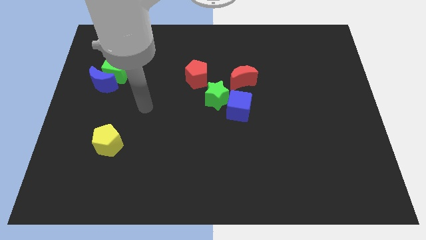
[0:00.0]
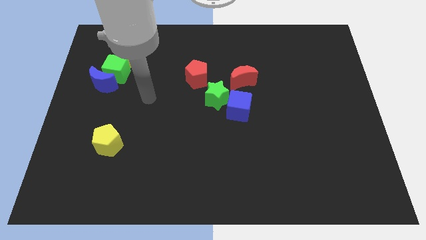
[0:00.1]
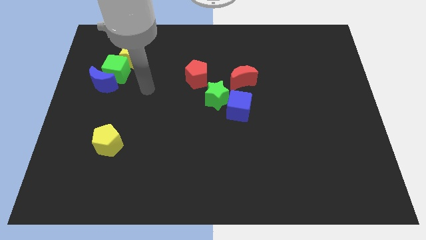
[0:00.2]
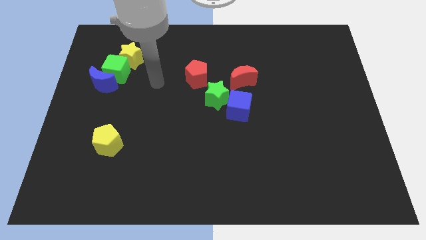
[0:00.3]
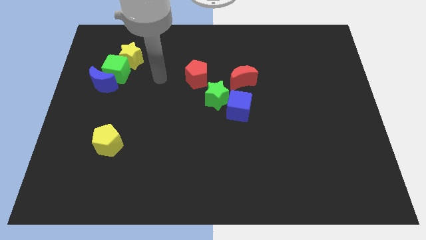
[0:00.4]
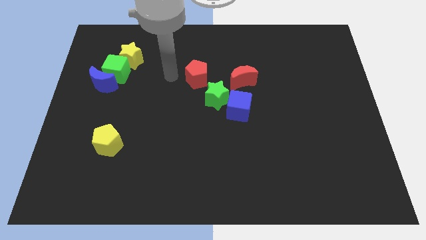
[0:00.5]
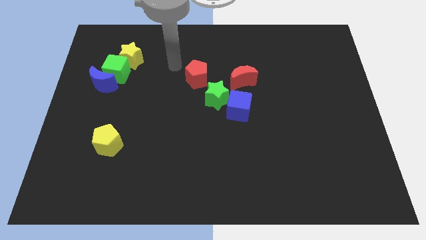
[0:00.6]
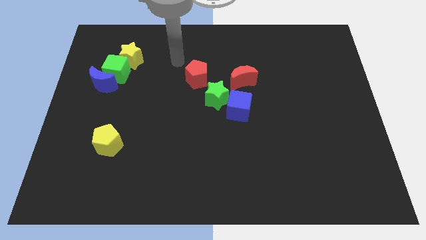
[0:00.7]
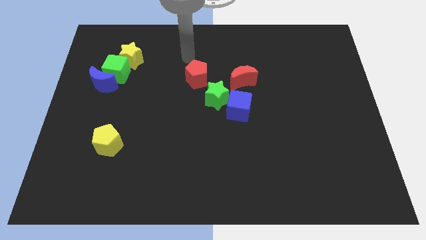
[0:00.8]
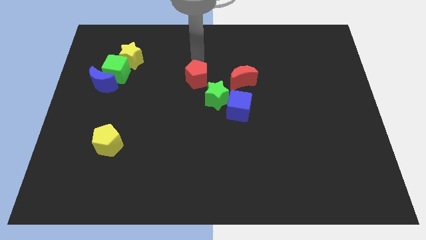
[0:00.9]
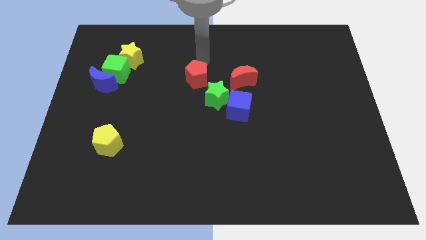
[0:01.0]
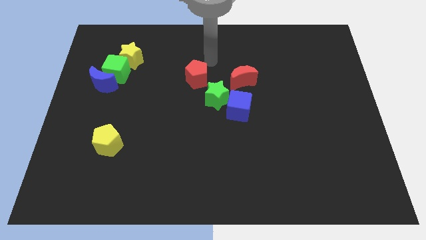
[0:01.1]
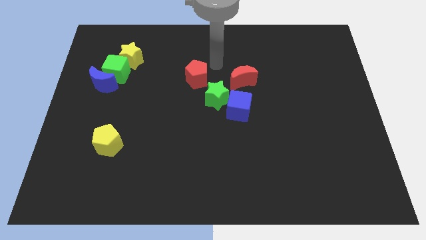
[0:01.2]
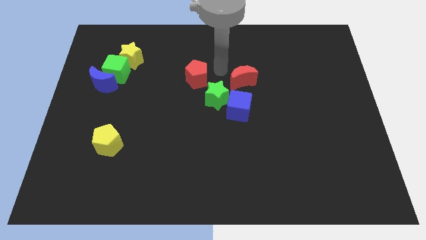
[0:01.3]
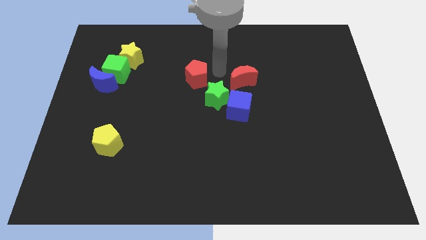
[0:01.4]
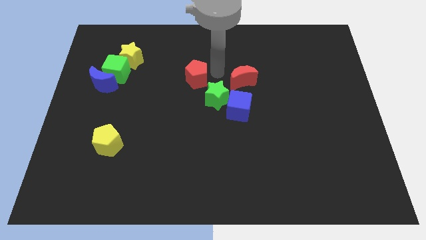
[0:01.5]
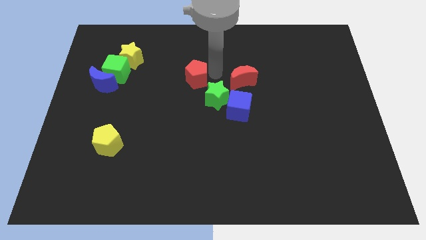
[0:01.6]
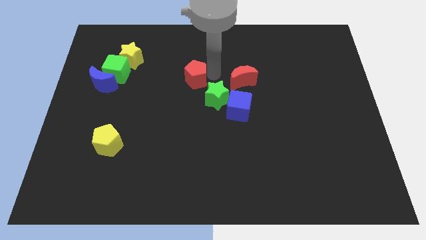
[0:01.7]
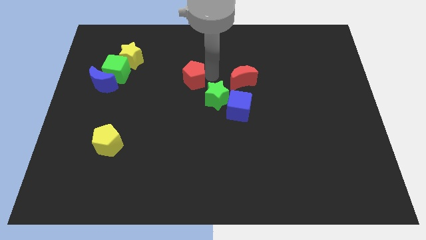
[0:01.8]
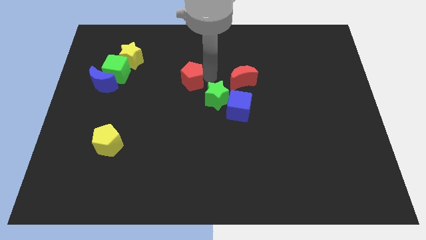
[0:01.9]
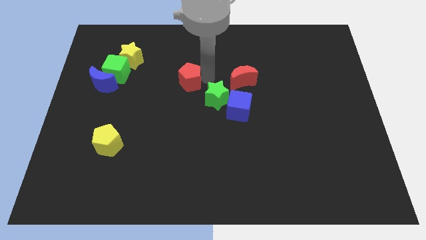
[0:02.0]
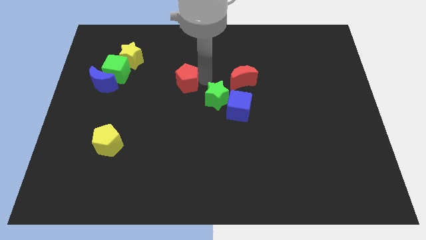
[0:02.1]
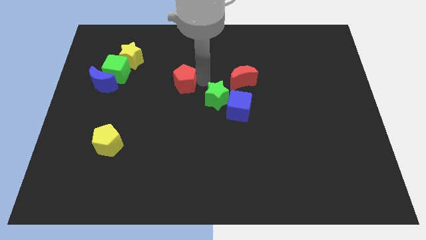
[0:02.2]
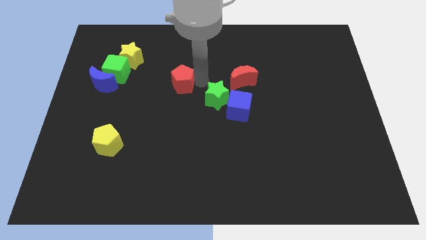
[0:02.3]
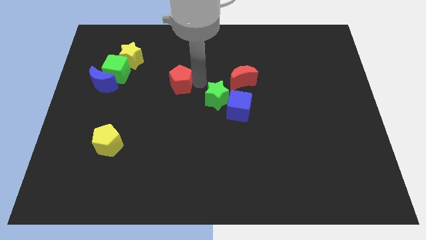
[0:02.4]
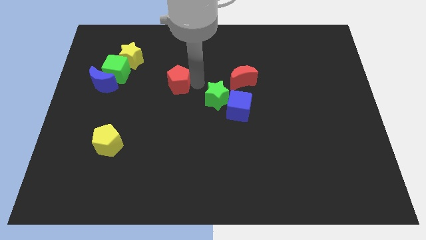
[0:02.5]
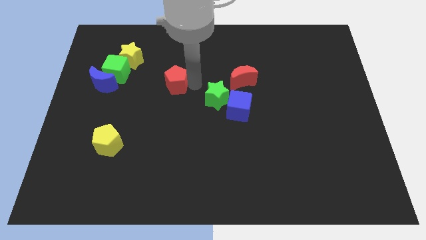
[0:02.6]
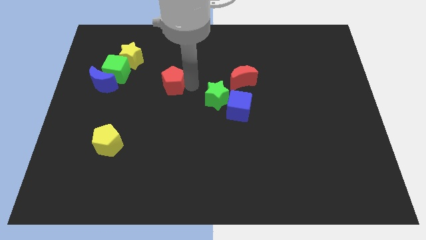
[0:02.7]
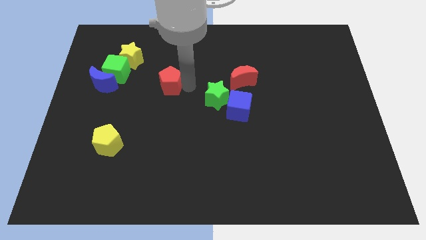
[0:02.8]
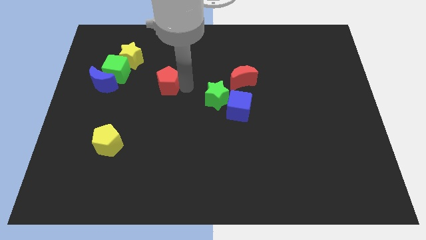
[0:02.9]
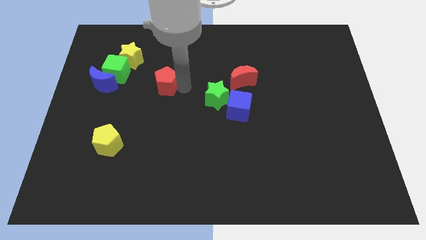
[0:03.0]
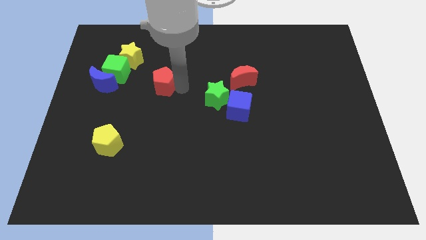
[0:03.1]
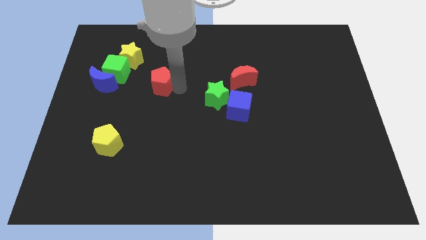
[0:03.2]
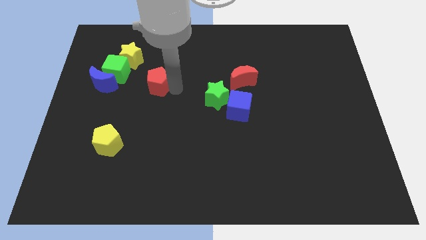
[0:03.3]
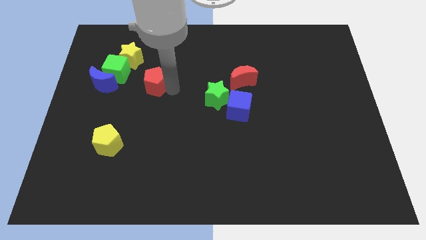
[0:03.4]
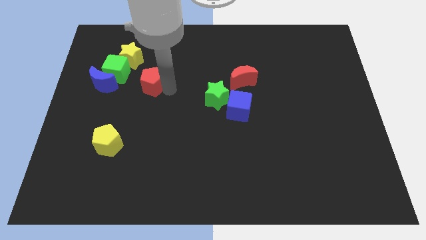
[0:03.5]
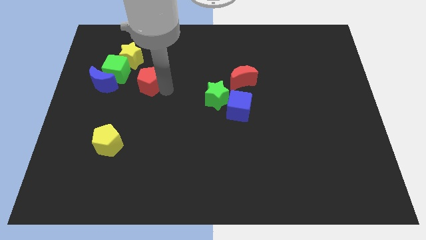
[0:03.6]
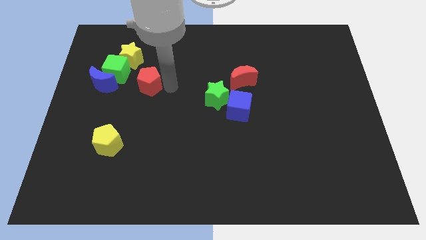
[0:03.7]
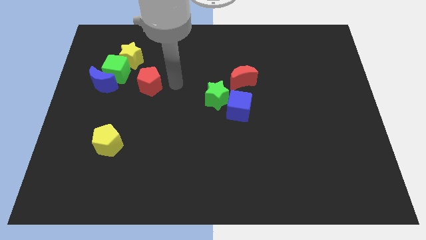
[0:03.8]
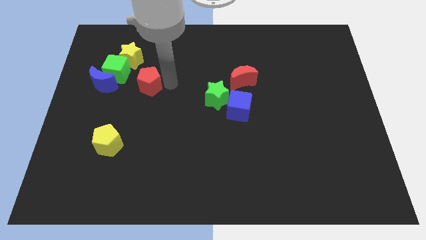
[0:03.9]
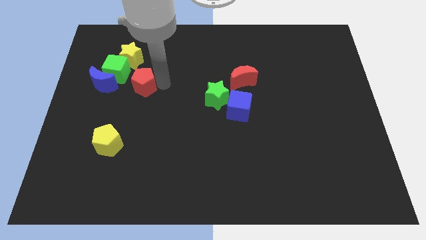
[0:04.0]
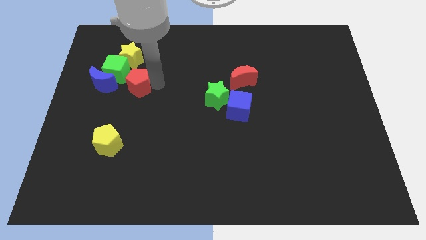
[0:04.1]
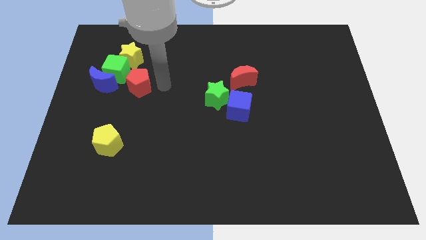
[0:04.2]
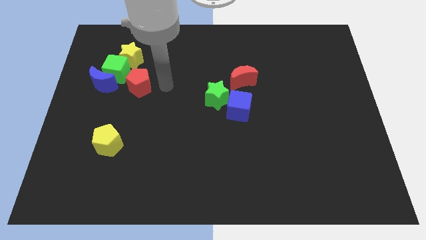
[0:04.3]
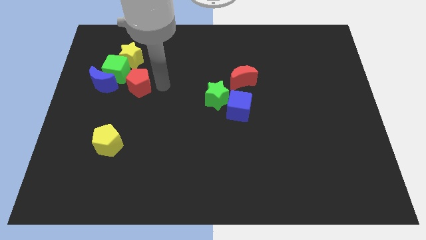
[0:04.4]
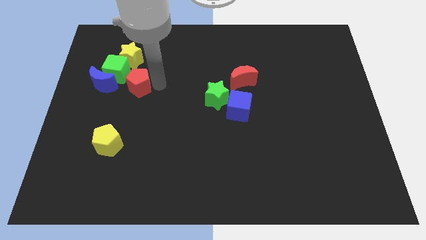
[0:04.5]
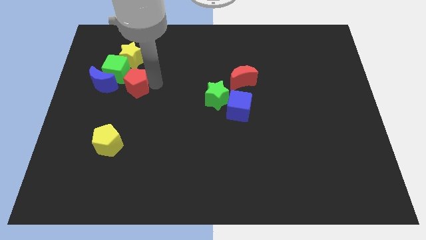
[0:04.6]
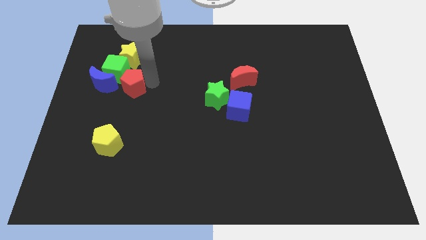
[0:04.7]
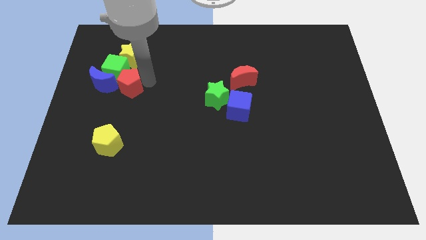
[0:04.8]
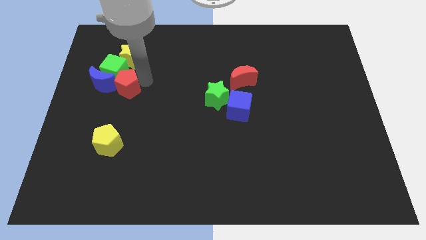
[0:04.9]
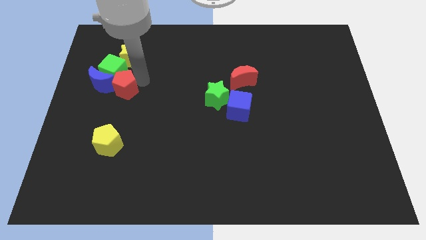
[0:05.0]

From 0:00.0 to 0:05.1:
push the red pentagon to the blue moon

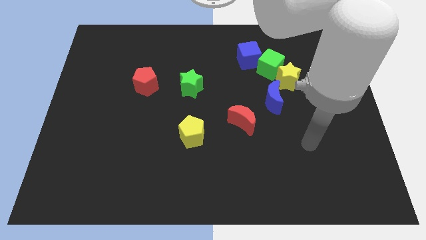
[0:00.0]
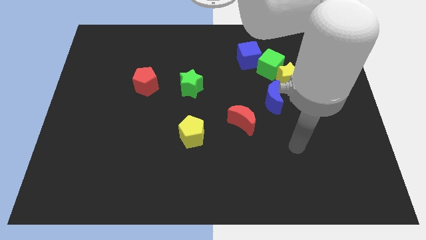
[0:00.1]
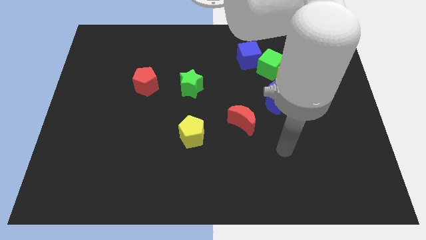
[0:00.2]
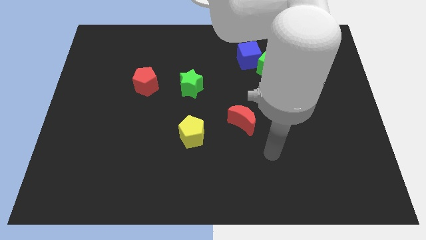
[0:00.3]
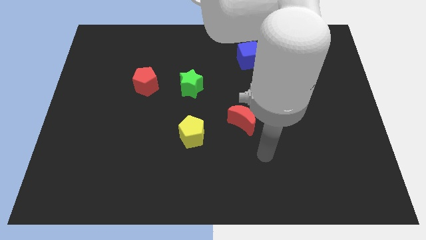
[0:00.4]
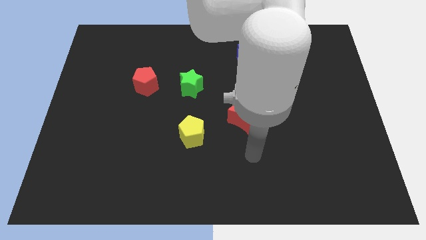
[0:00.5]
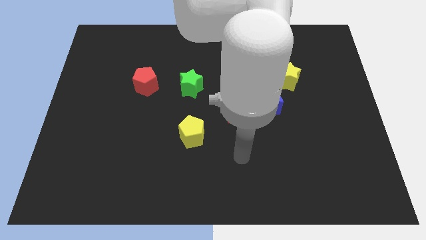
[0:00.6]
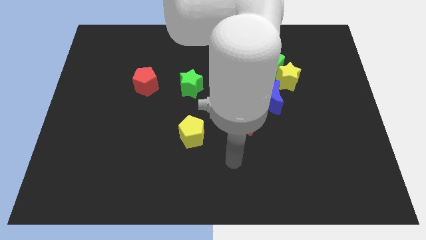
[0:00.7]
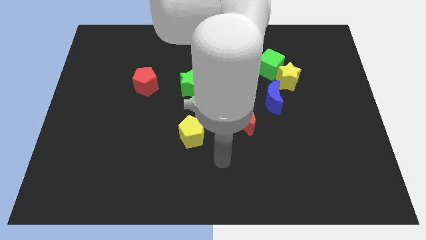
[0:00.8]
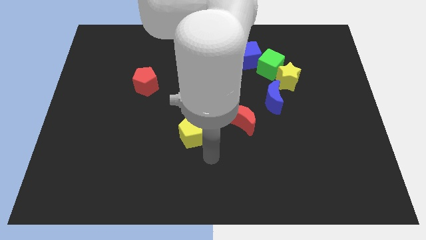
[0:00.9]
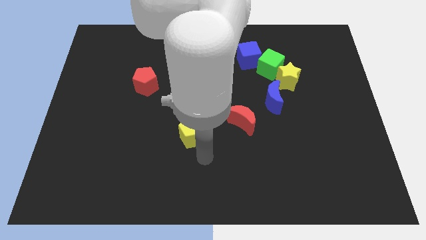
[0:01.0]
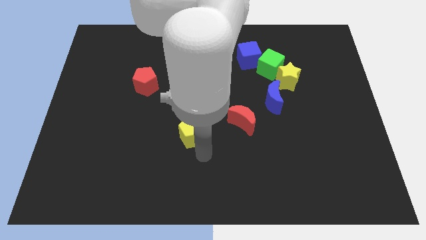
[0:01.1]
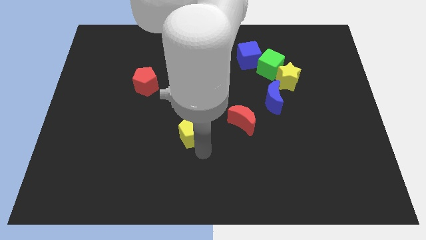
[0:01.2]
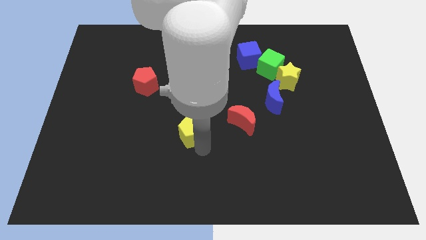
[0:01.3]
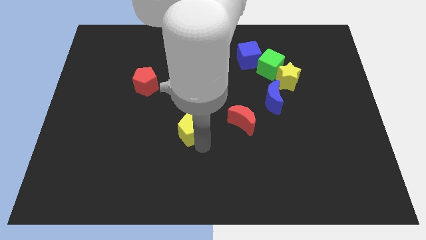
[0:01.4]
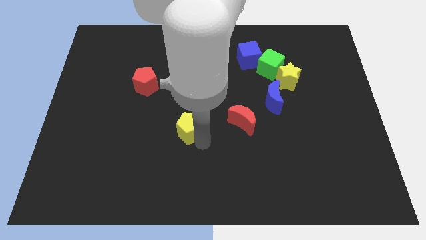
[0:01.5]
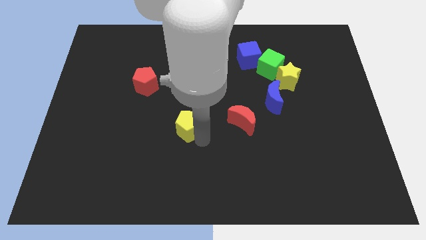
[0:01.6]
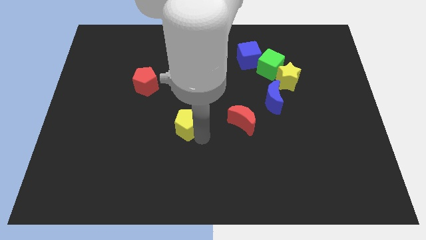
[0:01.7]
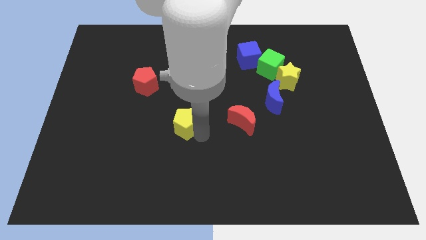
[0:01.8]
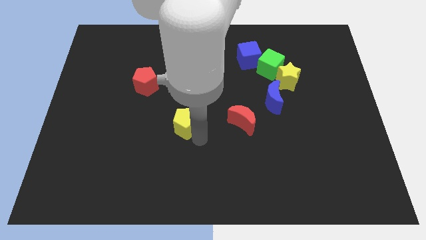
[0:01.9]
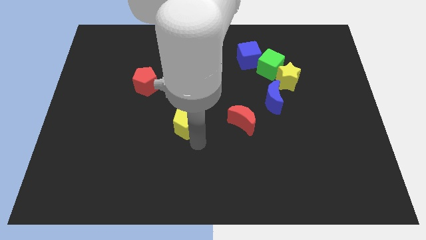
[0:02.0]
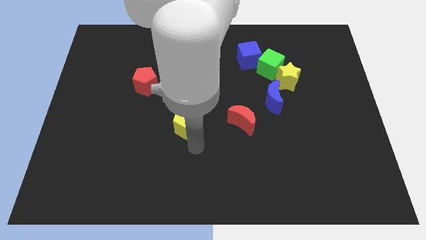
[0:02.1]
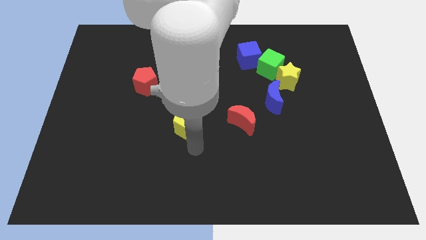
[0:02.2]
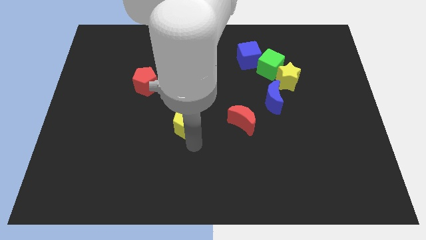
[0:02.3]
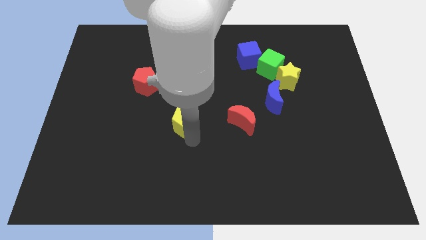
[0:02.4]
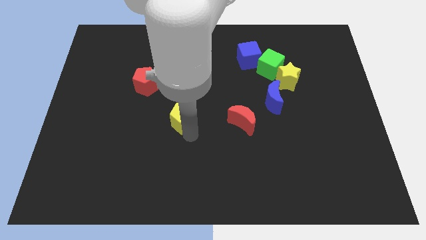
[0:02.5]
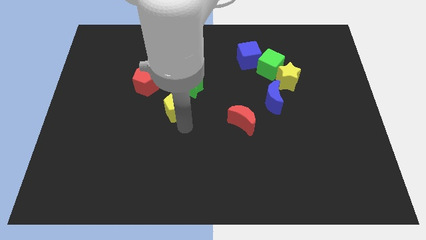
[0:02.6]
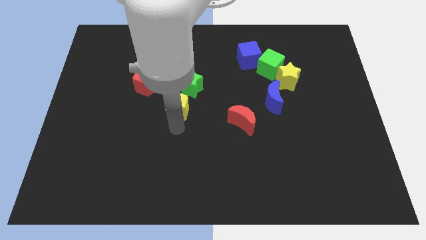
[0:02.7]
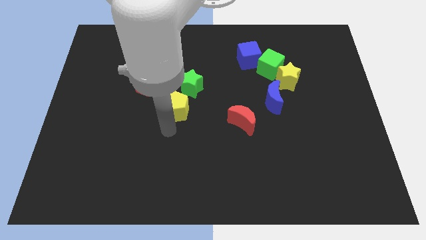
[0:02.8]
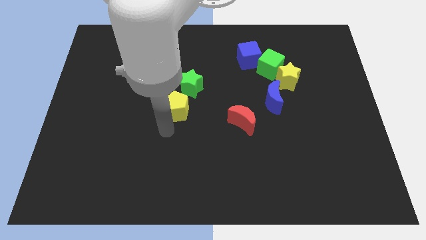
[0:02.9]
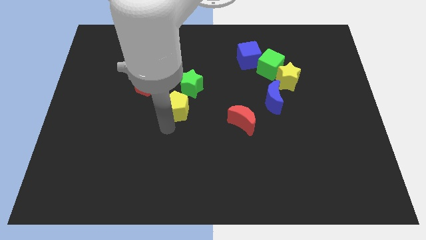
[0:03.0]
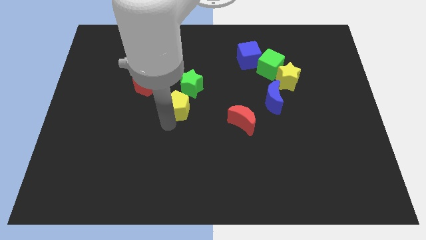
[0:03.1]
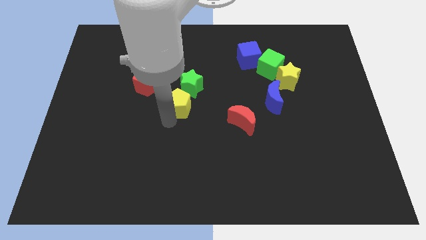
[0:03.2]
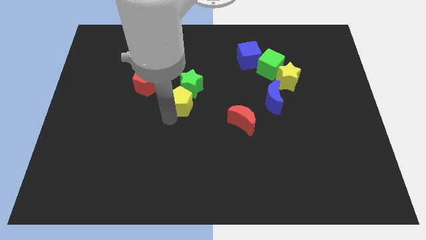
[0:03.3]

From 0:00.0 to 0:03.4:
slide the yellow pentagon towards the green star
